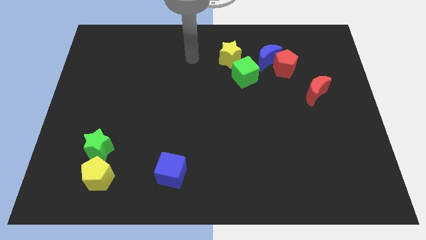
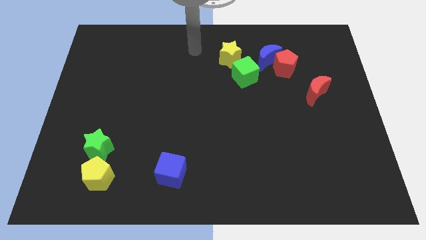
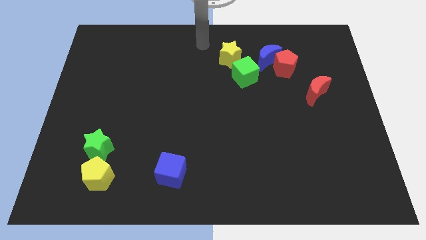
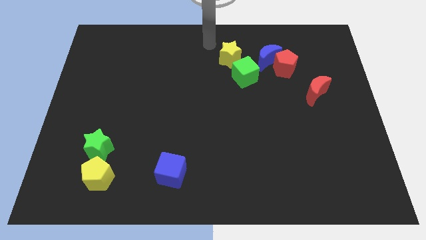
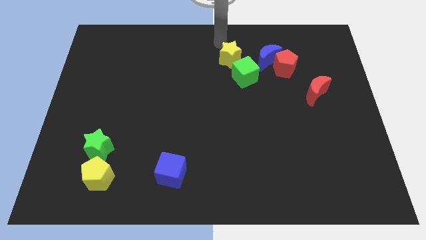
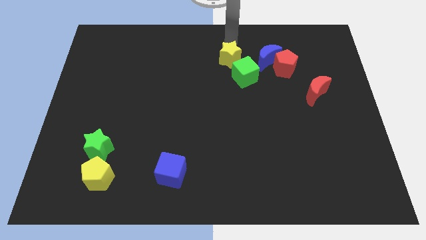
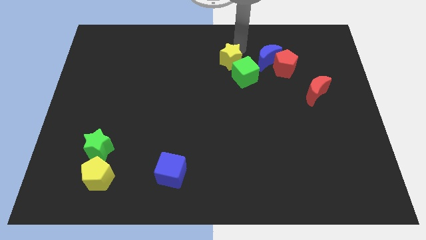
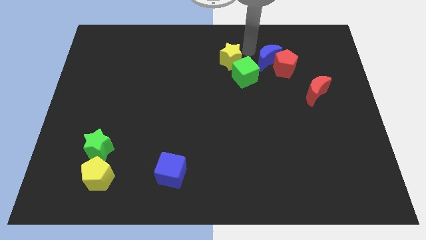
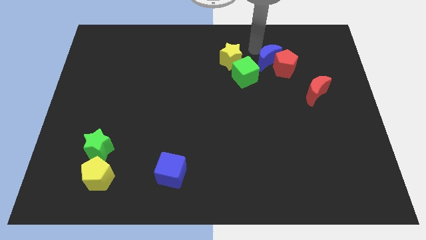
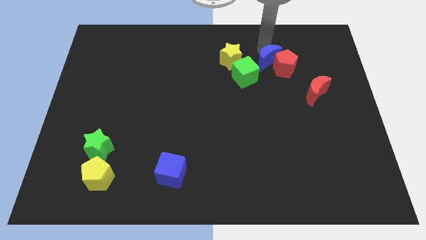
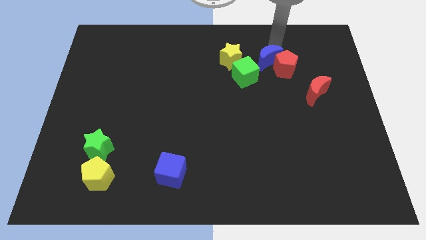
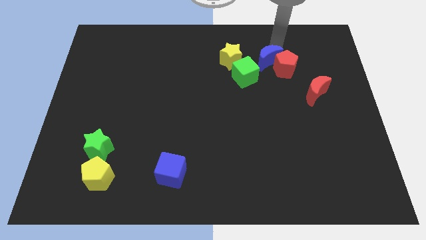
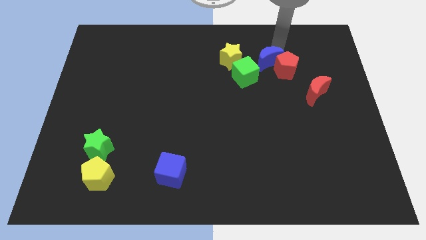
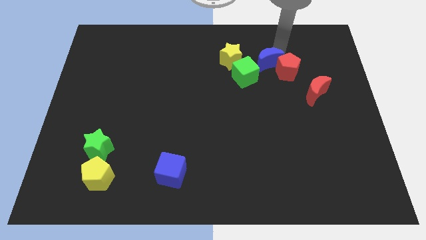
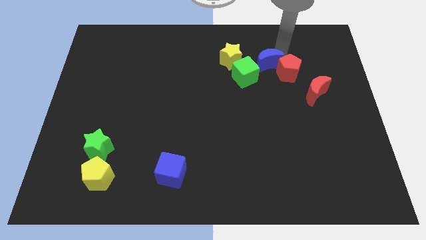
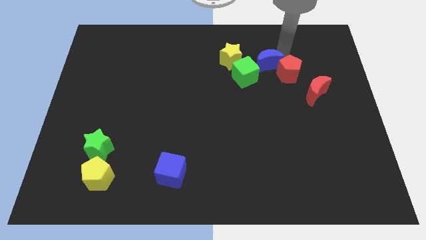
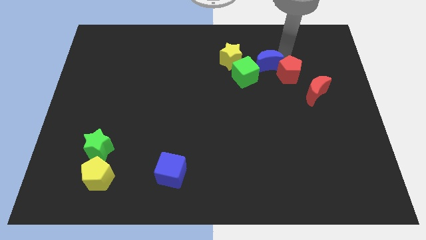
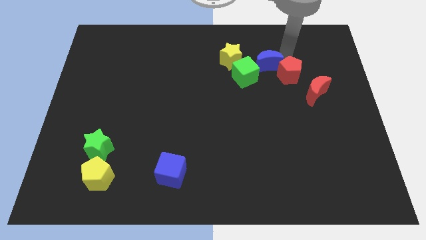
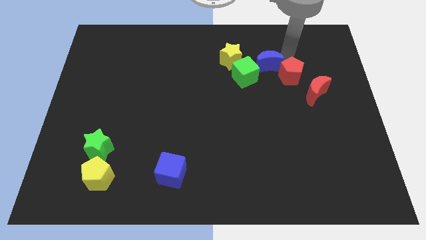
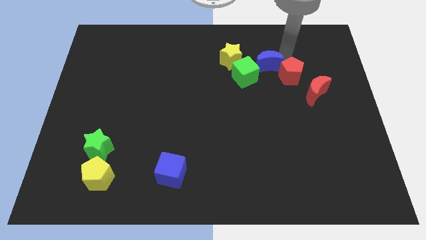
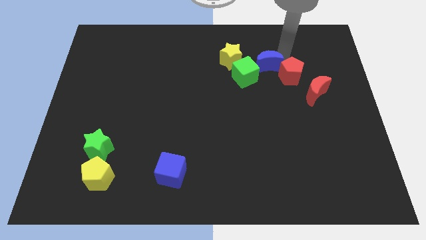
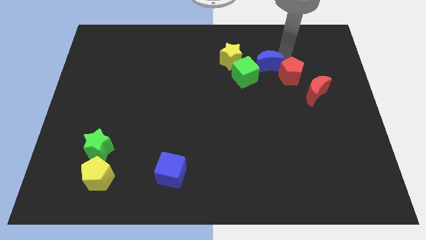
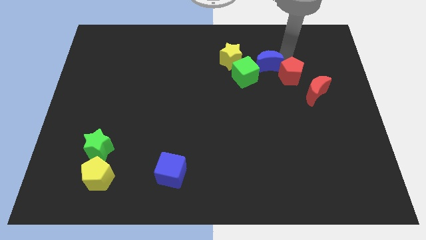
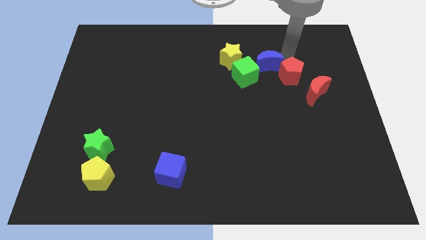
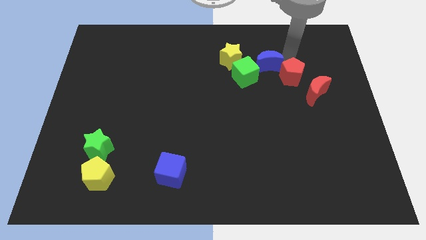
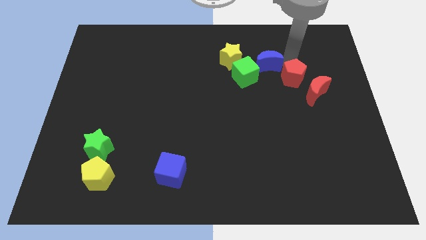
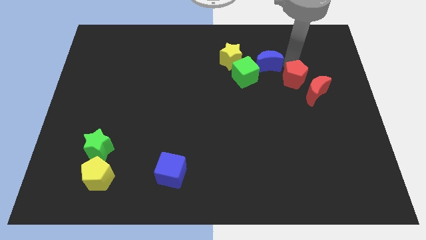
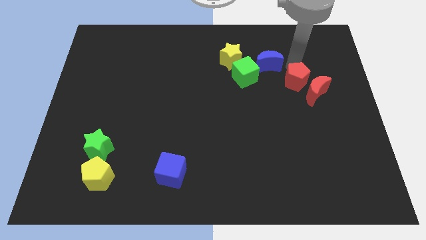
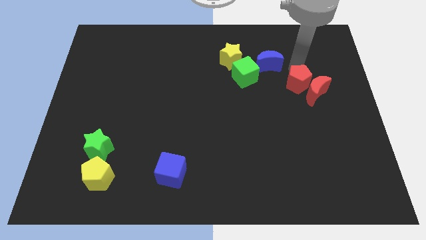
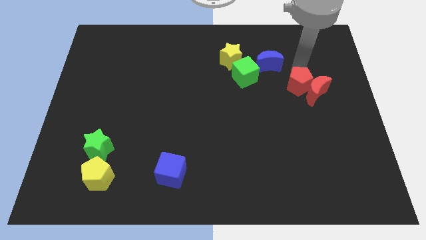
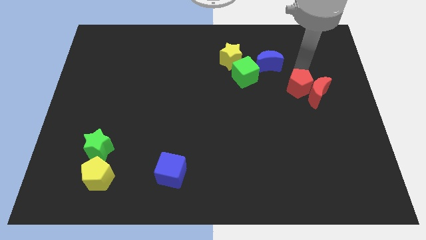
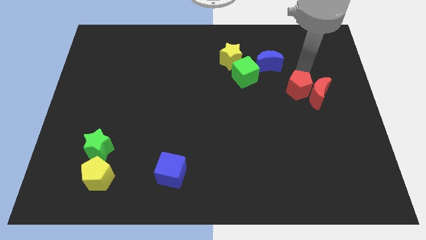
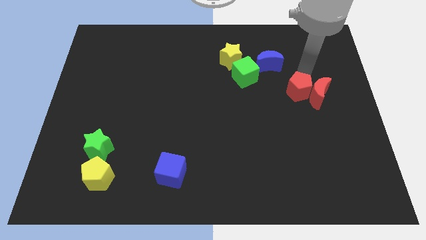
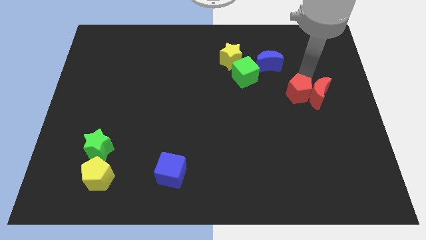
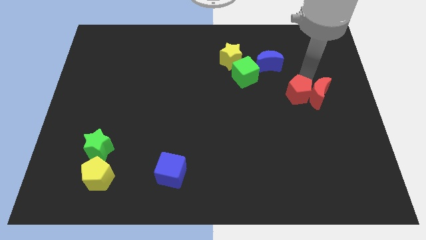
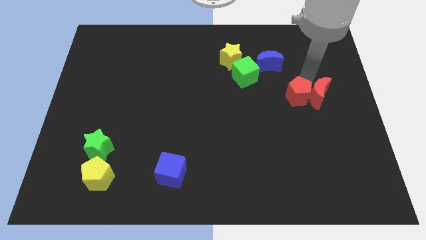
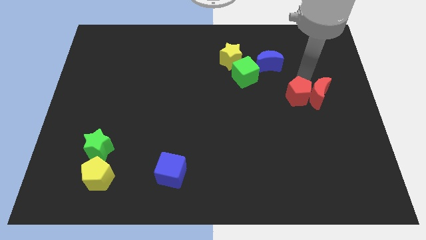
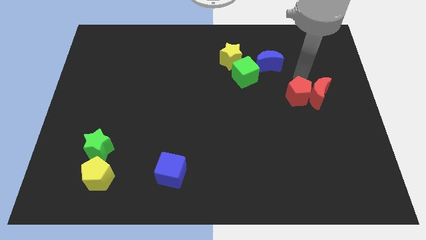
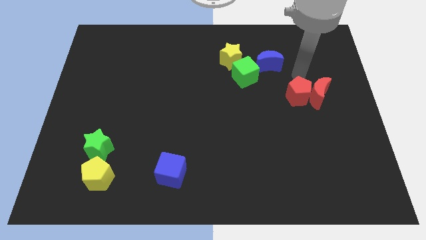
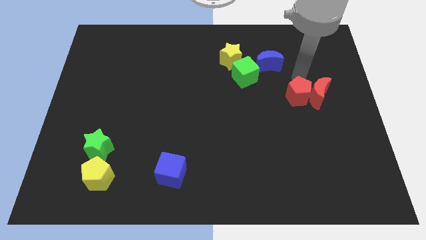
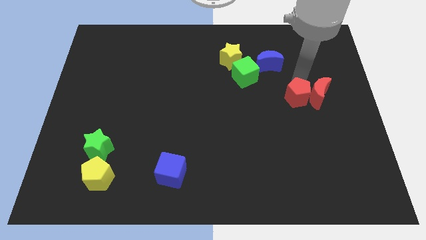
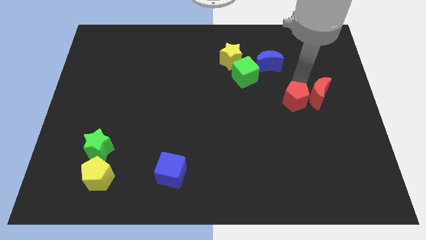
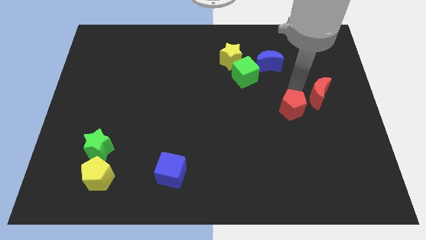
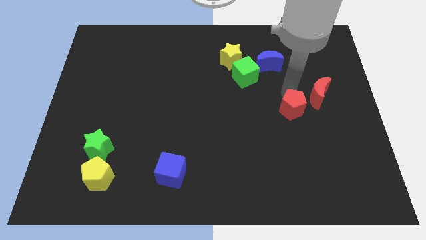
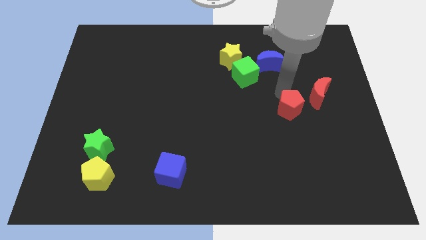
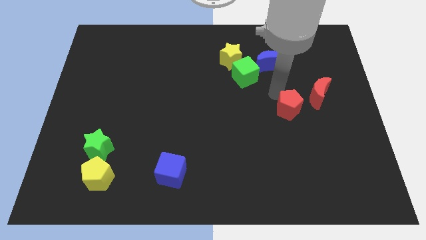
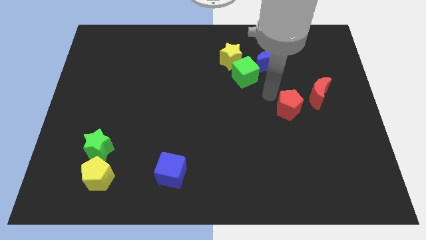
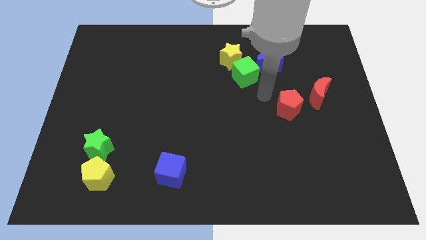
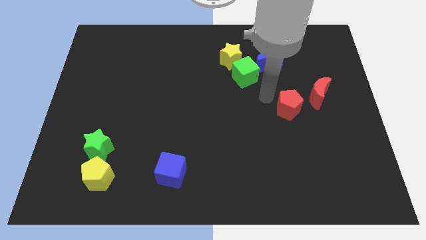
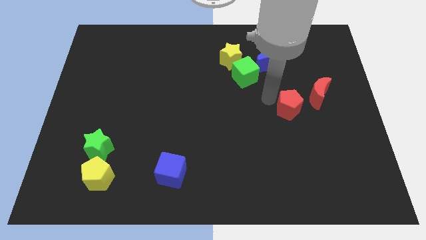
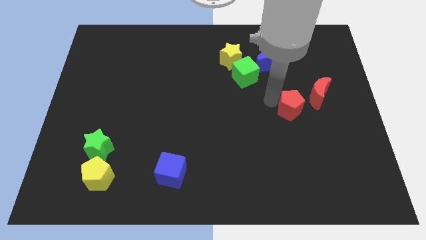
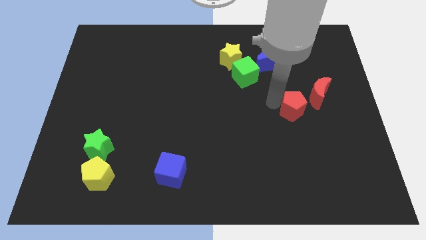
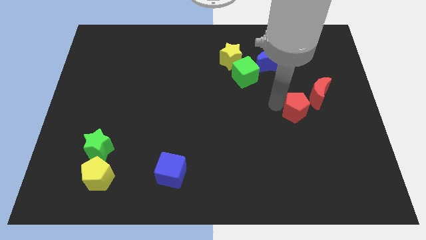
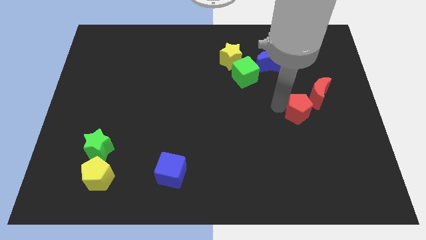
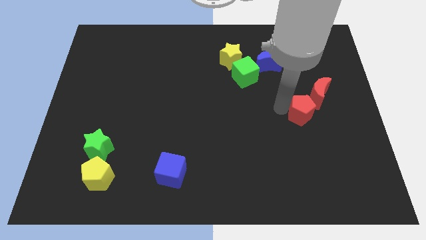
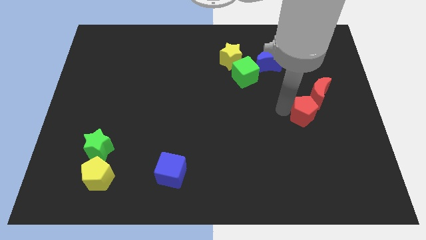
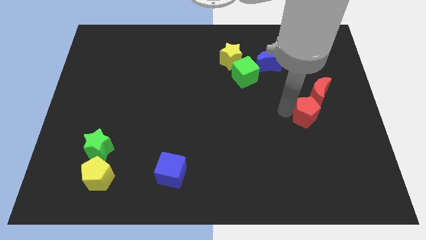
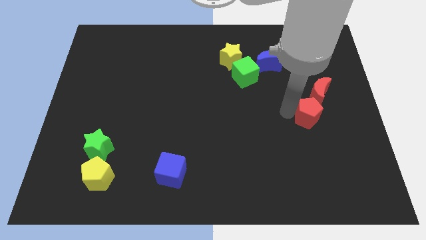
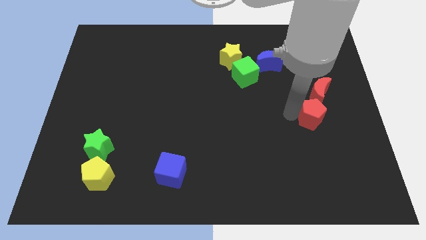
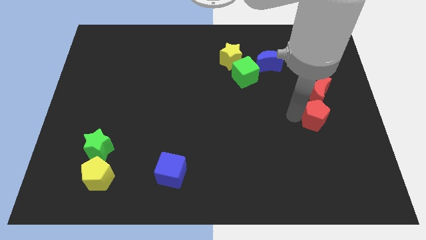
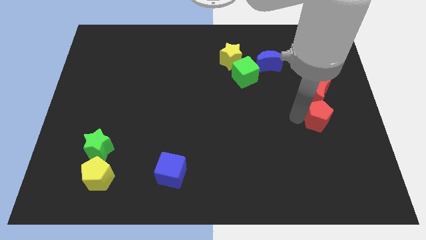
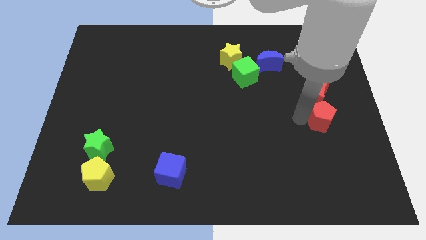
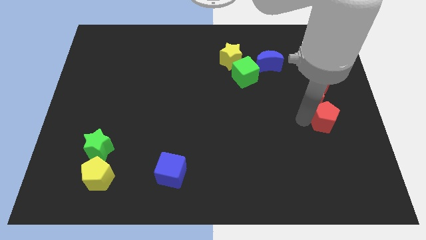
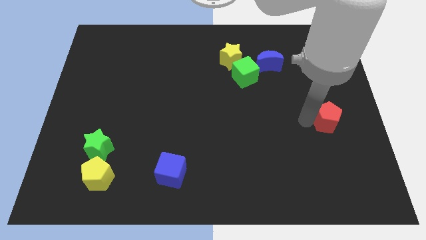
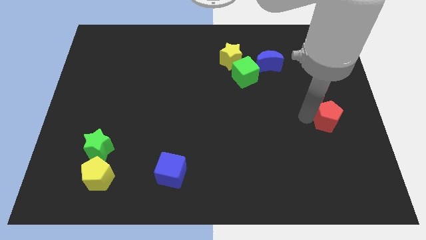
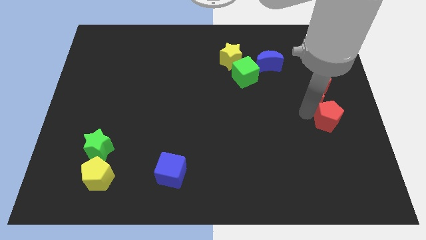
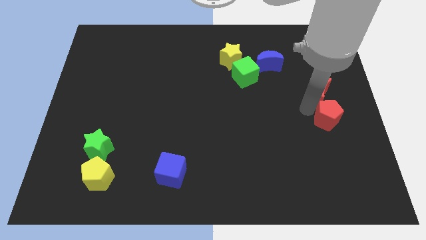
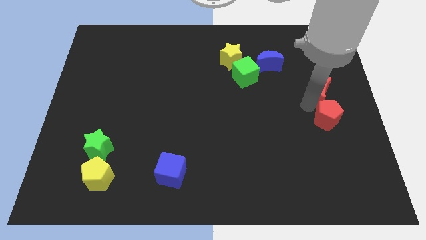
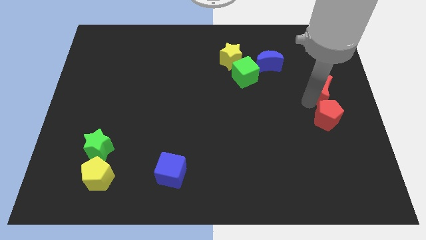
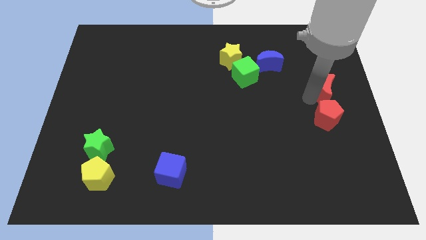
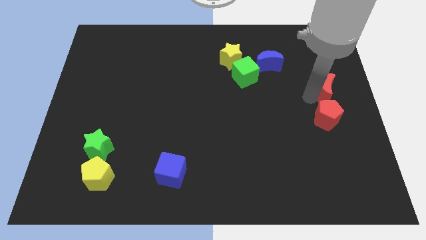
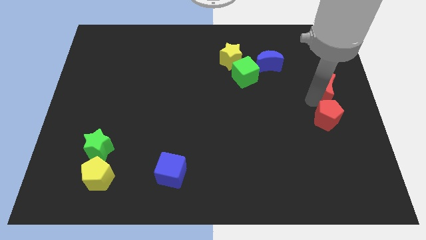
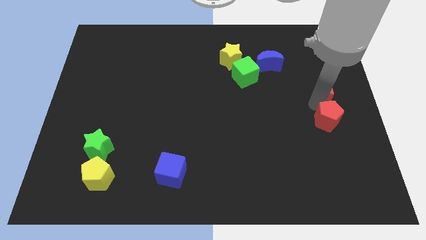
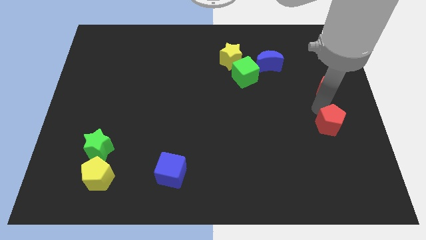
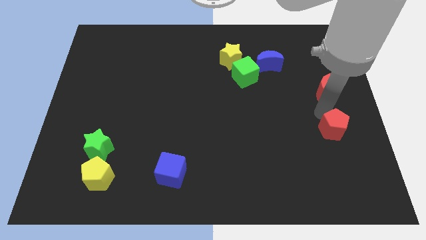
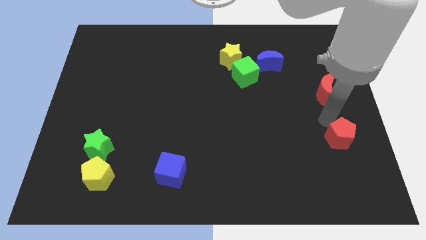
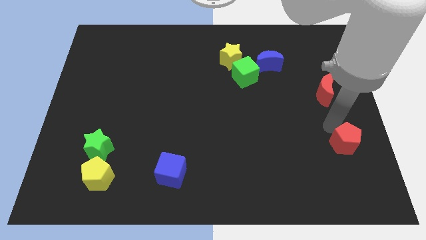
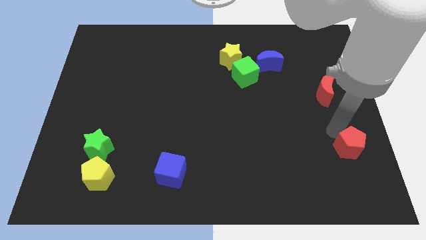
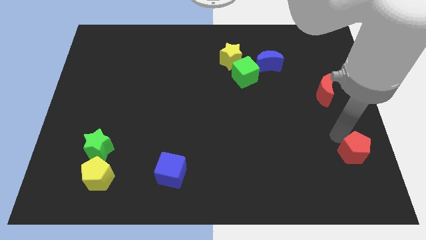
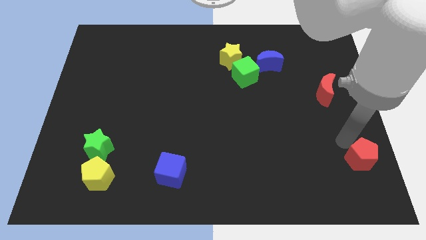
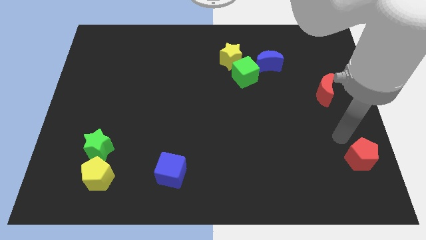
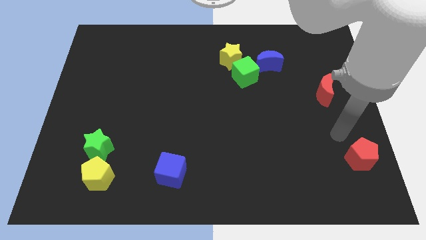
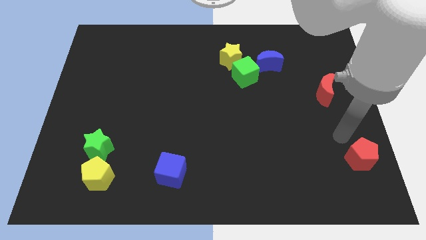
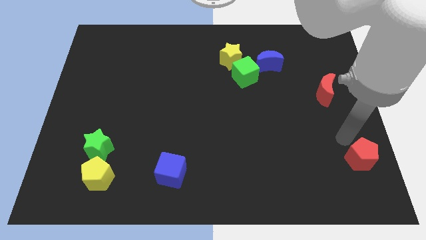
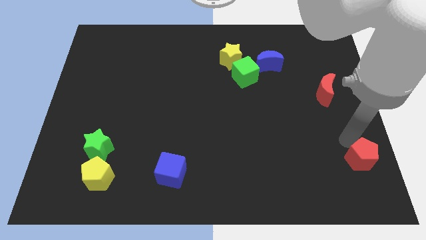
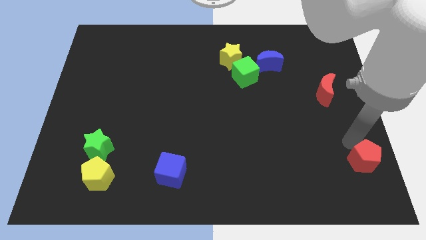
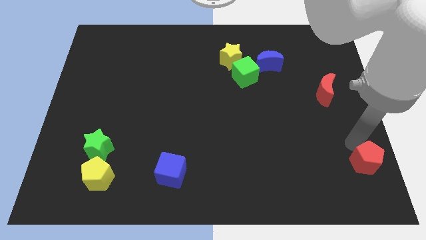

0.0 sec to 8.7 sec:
slide the red pentagon to the bottom right
